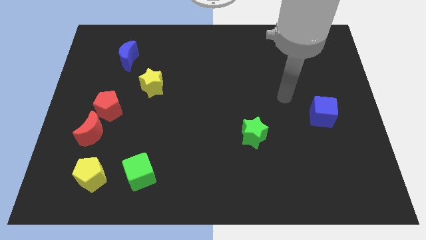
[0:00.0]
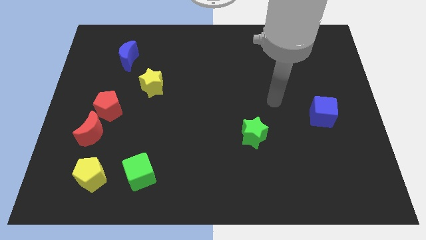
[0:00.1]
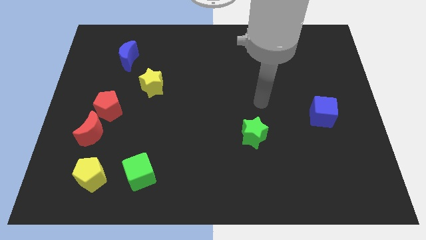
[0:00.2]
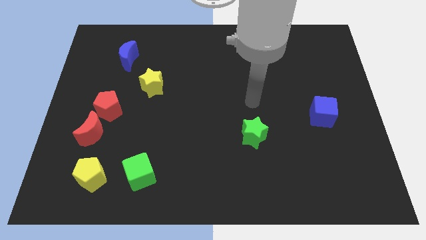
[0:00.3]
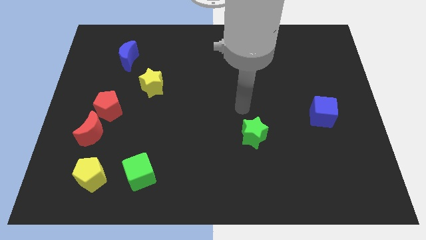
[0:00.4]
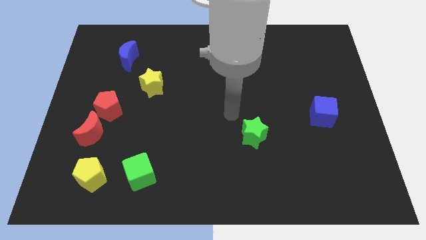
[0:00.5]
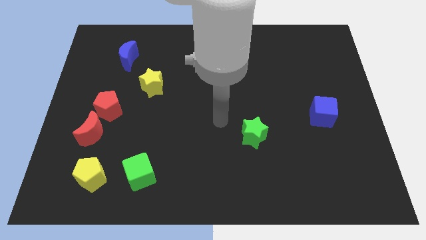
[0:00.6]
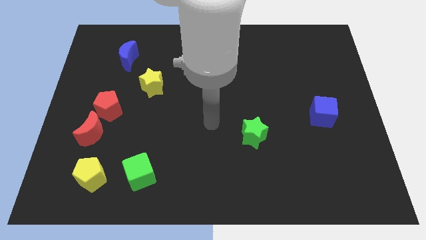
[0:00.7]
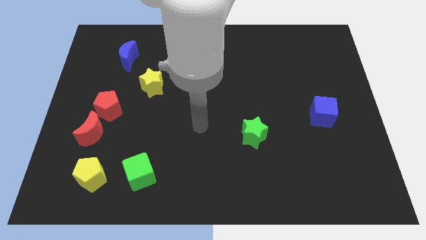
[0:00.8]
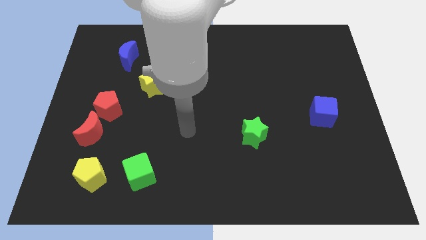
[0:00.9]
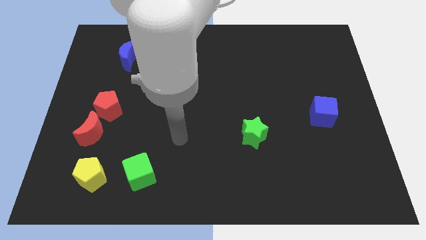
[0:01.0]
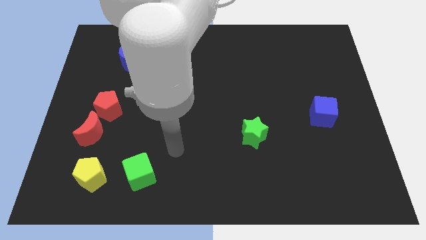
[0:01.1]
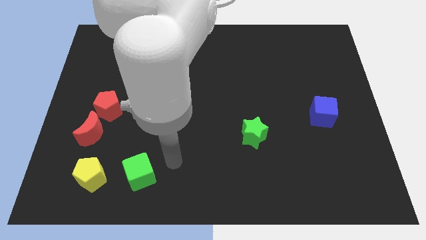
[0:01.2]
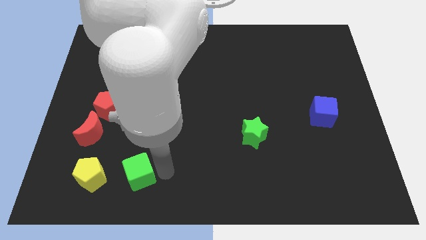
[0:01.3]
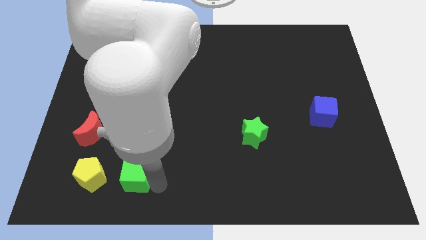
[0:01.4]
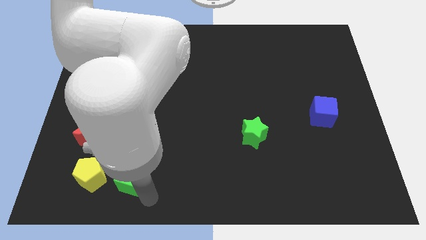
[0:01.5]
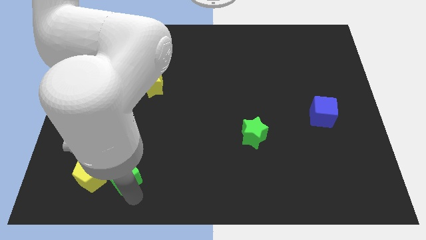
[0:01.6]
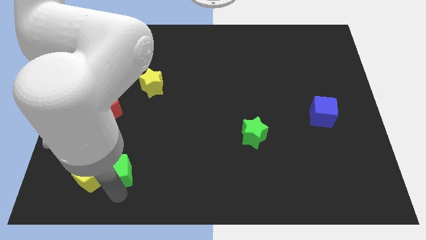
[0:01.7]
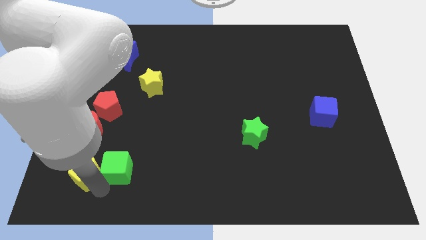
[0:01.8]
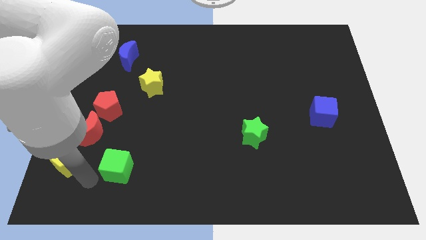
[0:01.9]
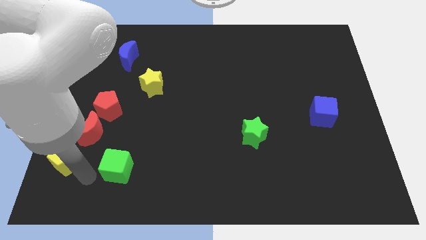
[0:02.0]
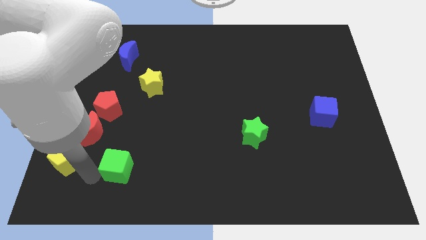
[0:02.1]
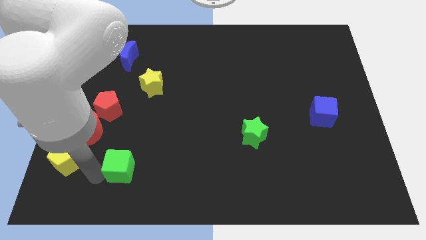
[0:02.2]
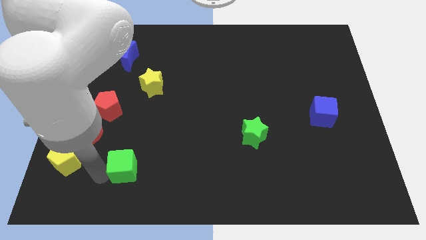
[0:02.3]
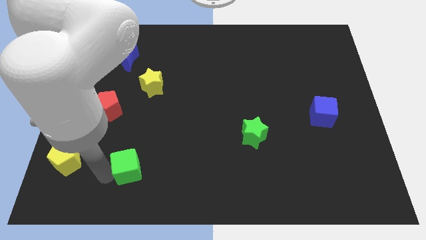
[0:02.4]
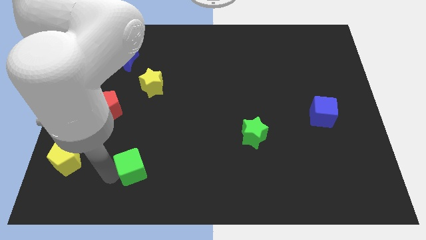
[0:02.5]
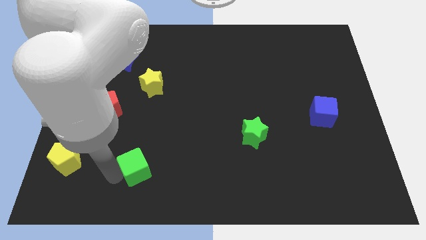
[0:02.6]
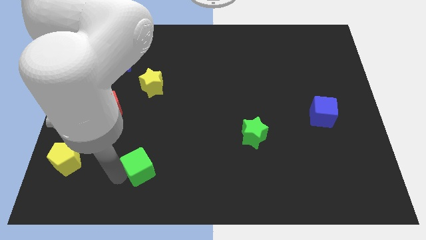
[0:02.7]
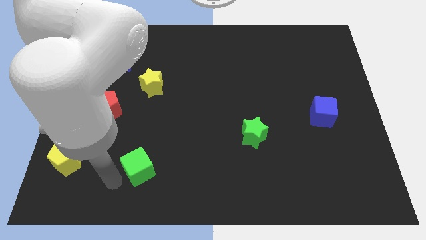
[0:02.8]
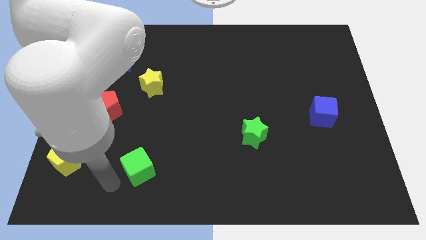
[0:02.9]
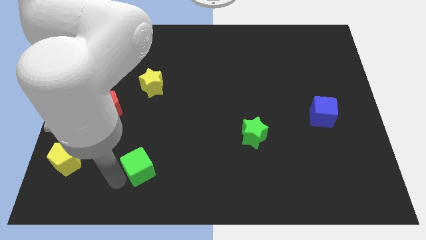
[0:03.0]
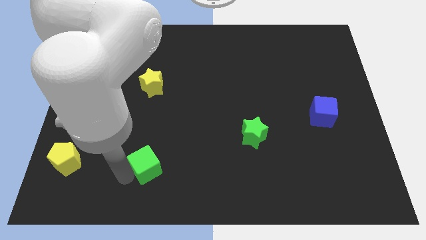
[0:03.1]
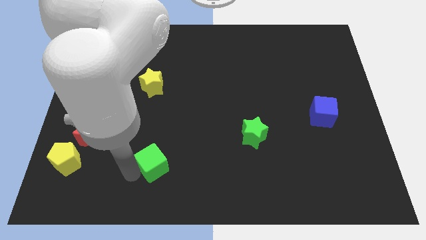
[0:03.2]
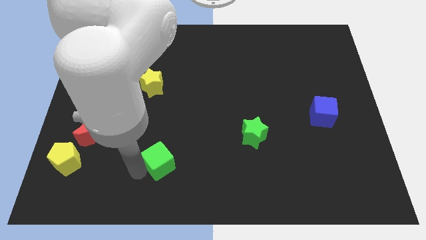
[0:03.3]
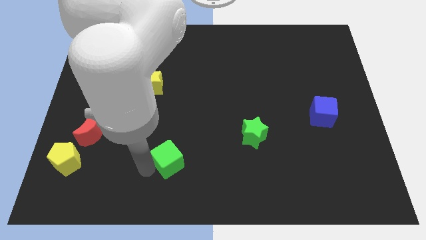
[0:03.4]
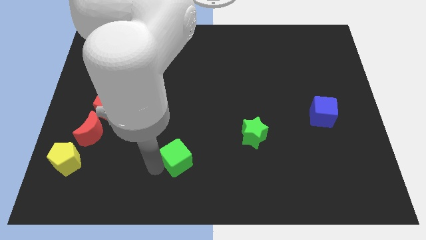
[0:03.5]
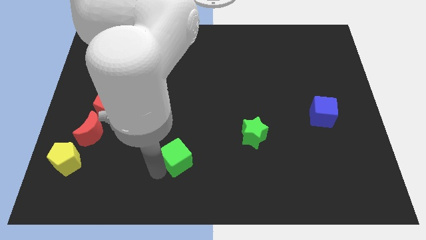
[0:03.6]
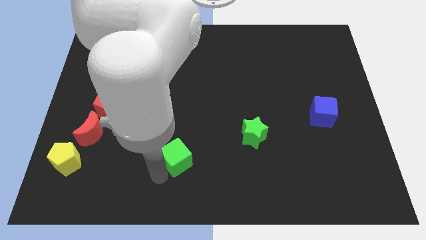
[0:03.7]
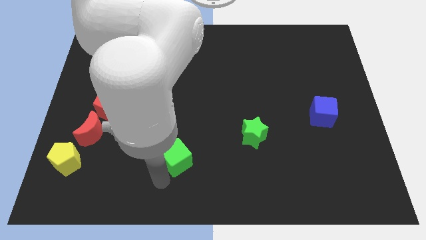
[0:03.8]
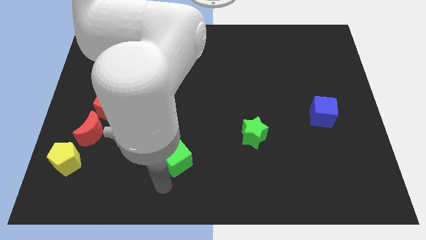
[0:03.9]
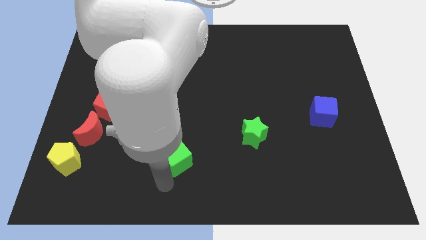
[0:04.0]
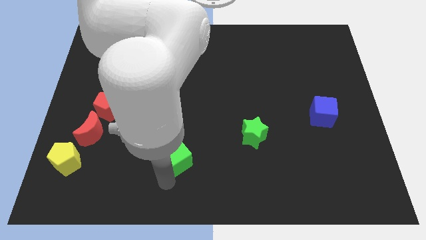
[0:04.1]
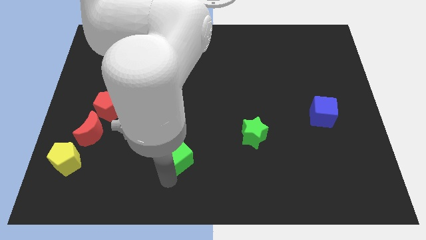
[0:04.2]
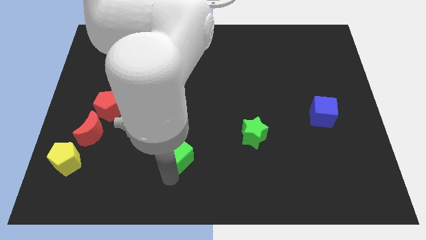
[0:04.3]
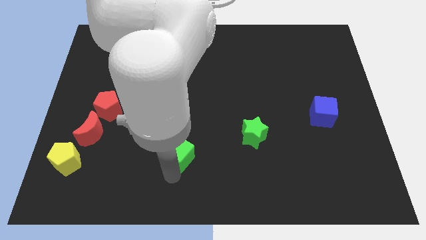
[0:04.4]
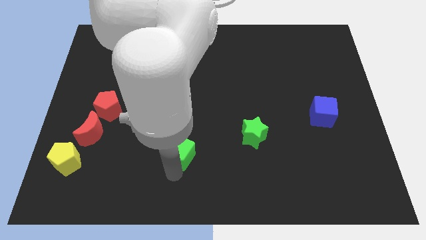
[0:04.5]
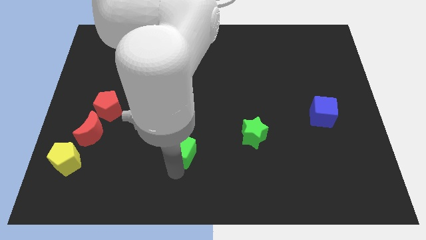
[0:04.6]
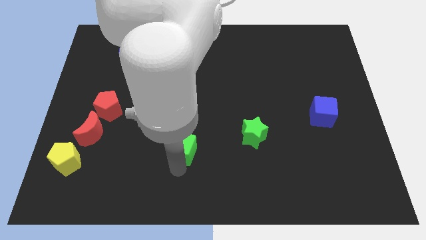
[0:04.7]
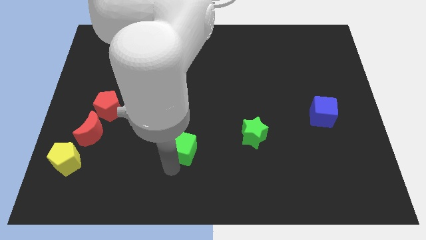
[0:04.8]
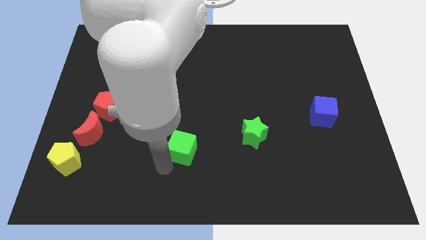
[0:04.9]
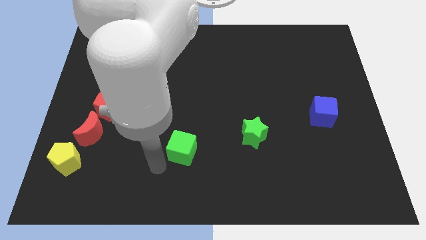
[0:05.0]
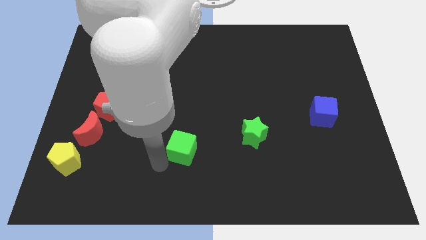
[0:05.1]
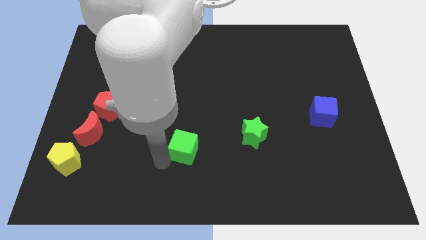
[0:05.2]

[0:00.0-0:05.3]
push the green cube just left of the green star

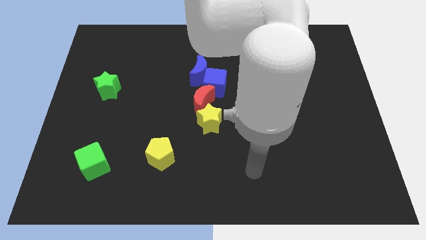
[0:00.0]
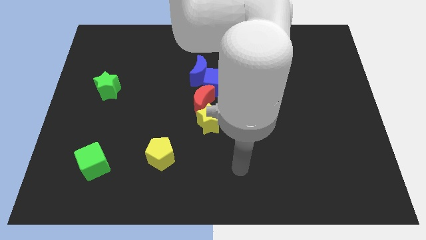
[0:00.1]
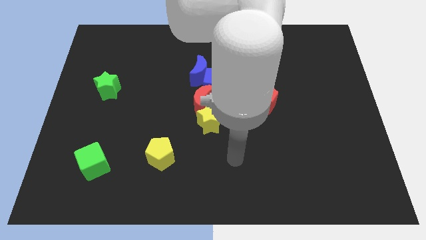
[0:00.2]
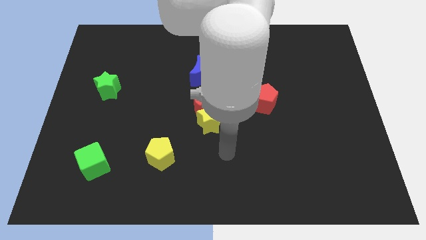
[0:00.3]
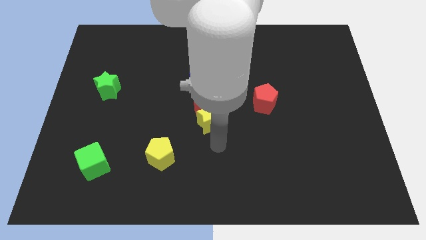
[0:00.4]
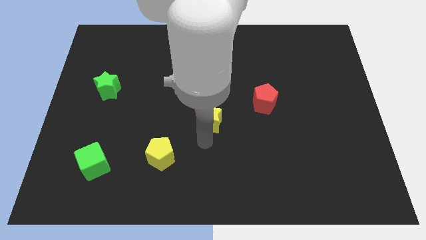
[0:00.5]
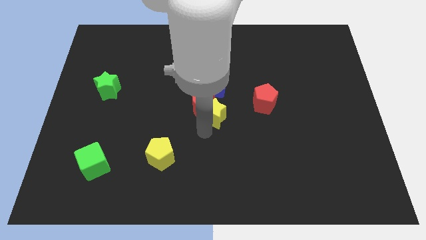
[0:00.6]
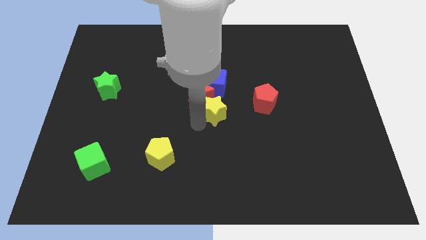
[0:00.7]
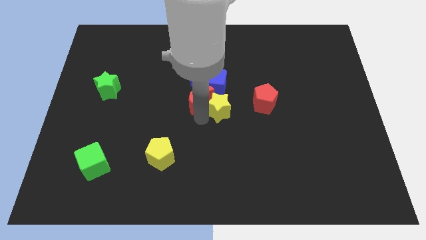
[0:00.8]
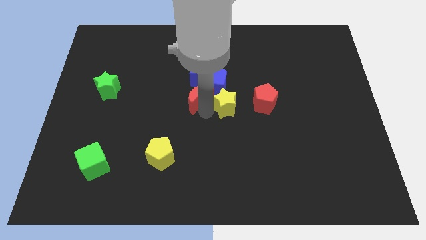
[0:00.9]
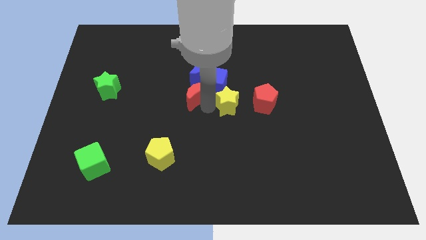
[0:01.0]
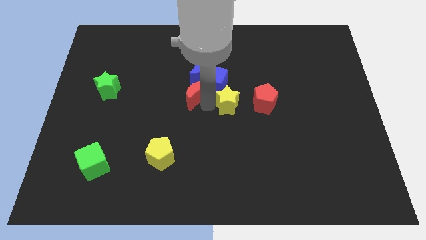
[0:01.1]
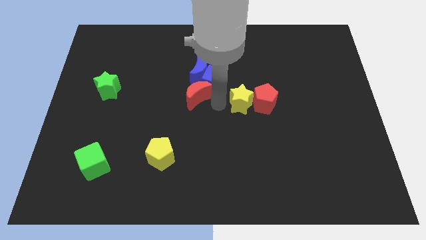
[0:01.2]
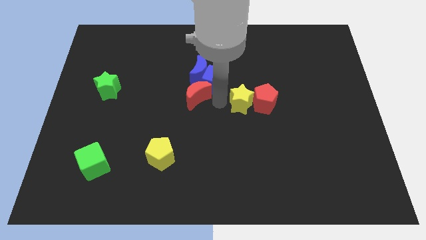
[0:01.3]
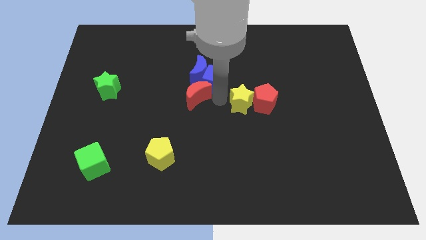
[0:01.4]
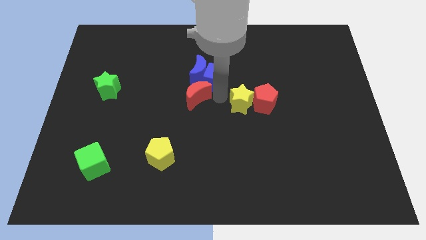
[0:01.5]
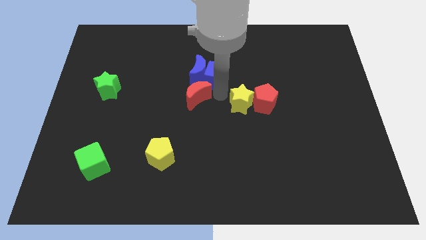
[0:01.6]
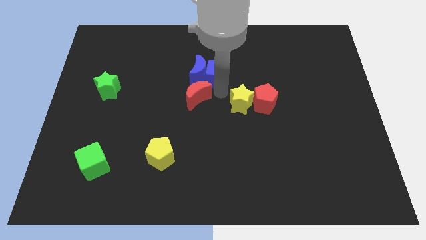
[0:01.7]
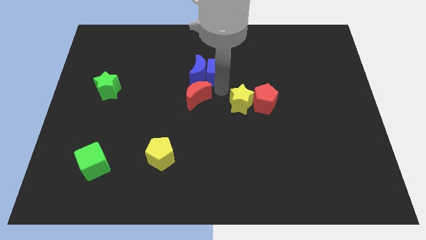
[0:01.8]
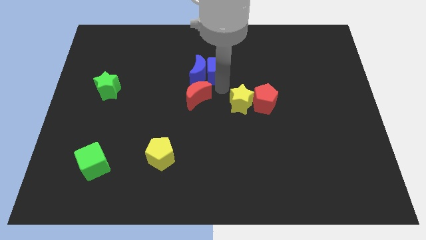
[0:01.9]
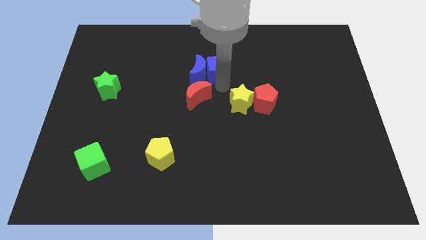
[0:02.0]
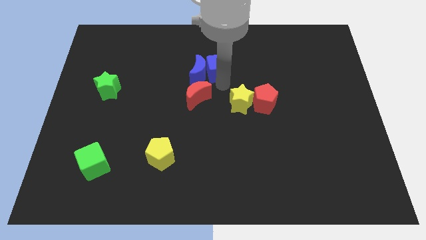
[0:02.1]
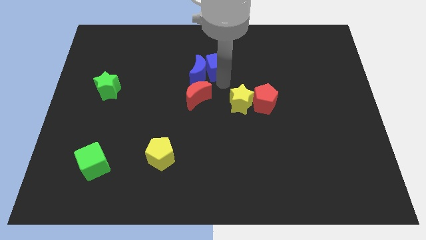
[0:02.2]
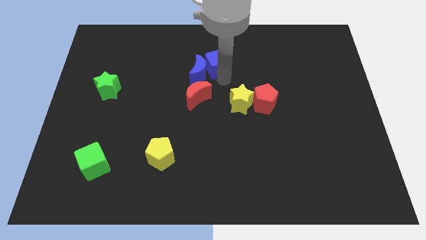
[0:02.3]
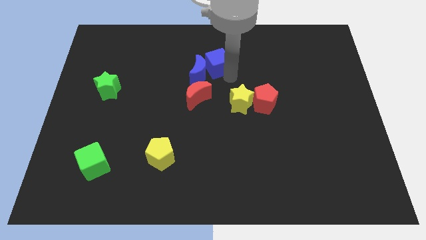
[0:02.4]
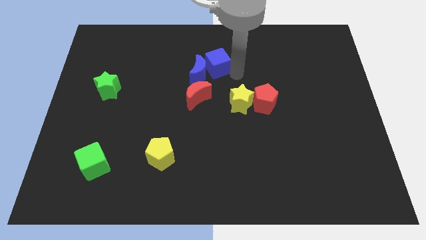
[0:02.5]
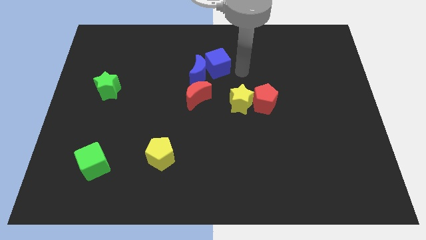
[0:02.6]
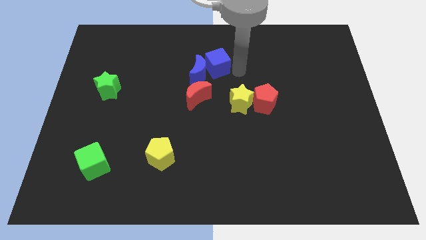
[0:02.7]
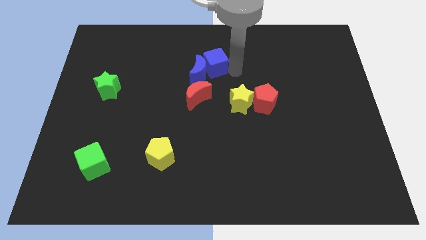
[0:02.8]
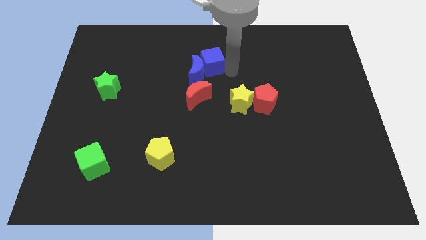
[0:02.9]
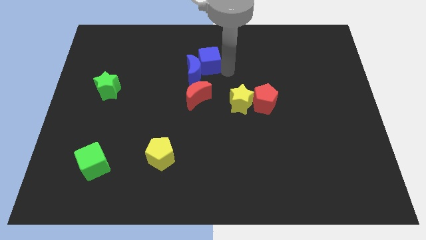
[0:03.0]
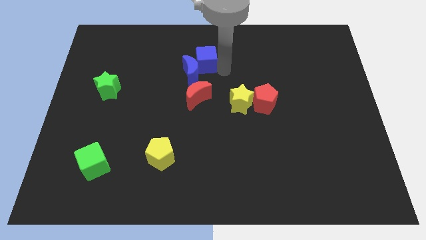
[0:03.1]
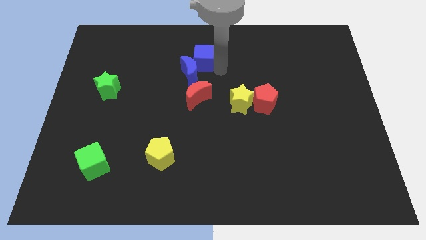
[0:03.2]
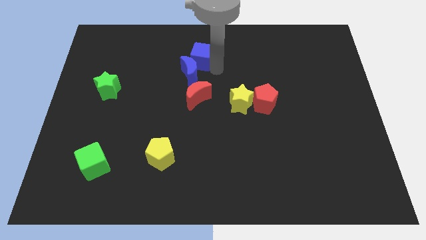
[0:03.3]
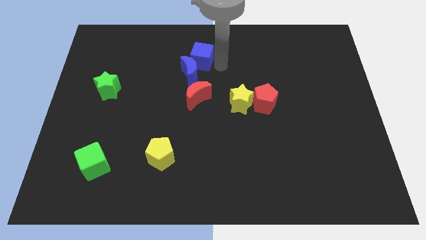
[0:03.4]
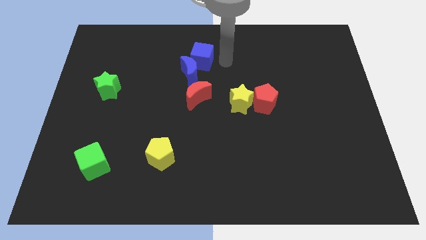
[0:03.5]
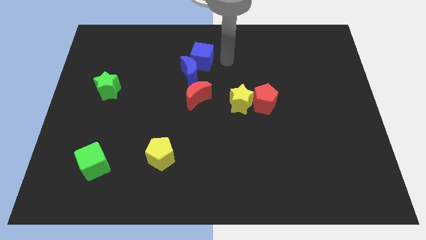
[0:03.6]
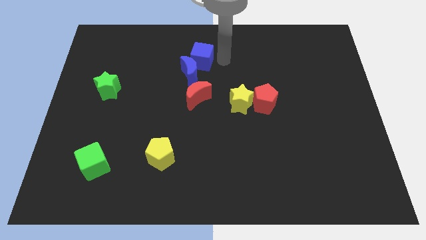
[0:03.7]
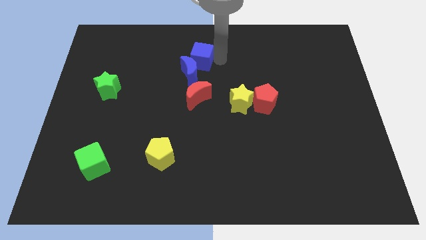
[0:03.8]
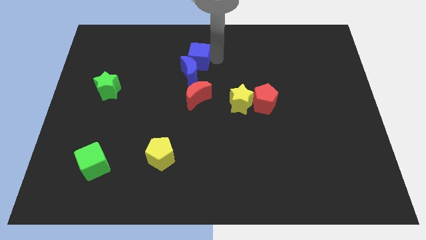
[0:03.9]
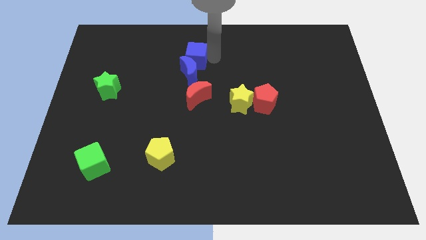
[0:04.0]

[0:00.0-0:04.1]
push the blue cube to the top left of the blue moon
